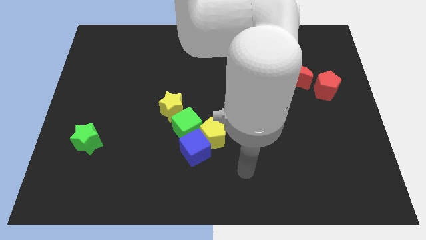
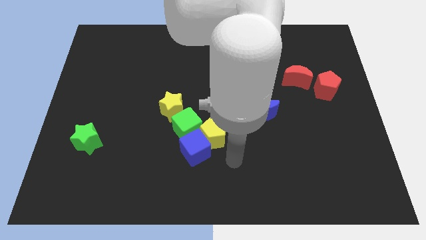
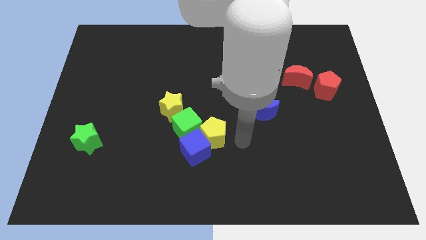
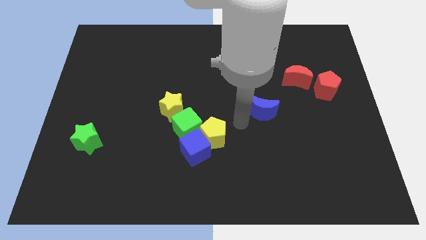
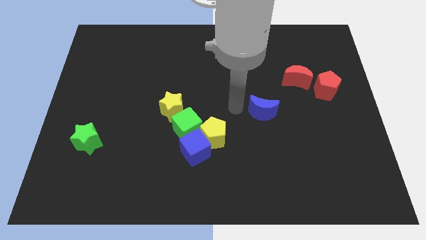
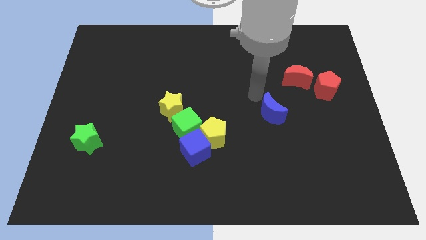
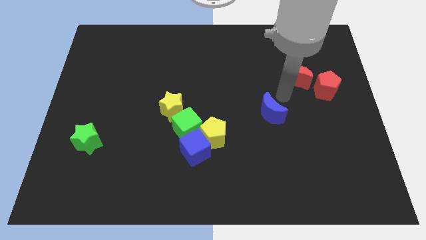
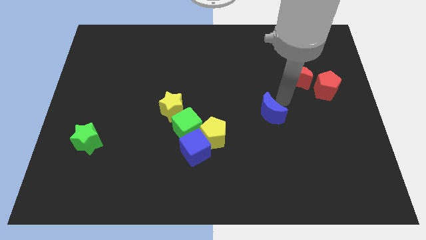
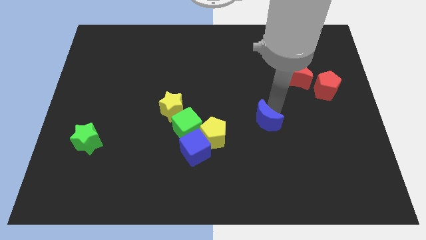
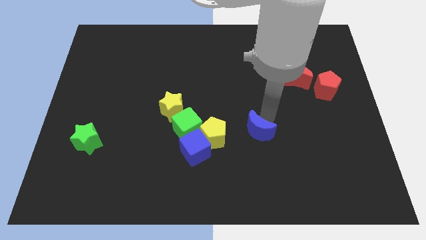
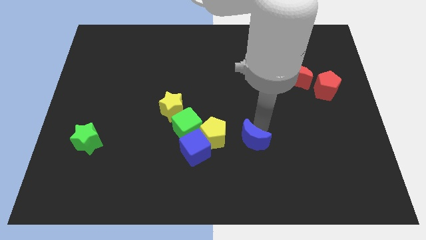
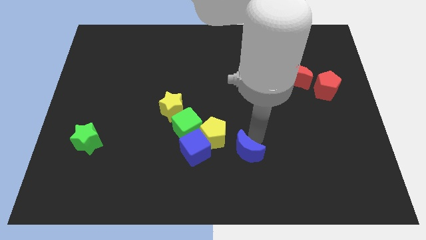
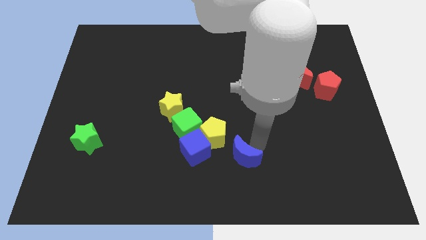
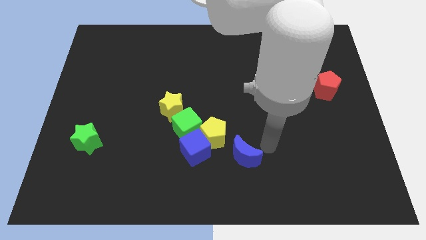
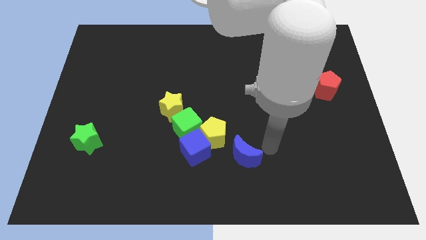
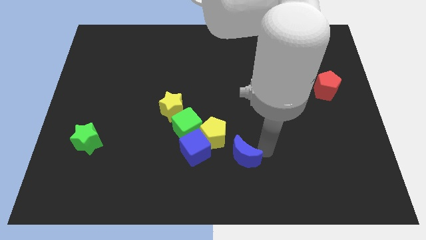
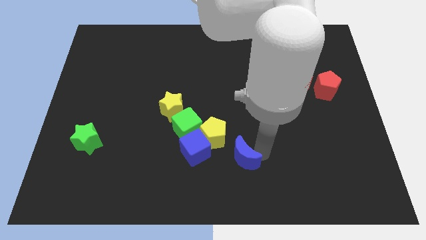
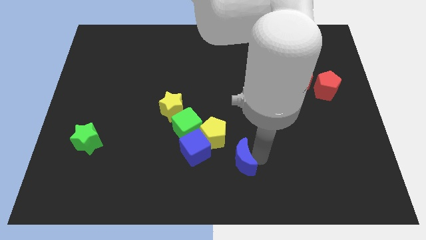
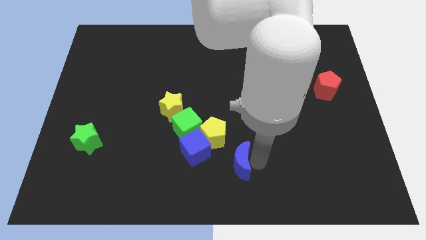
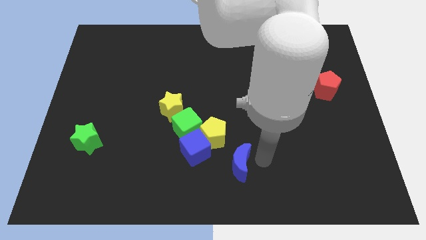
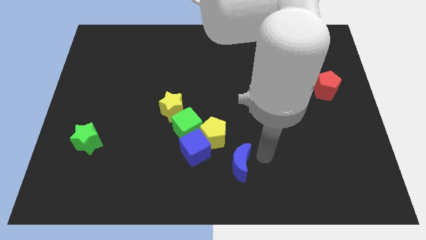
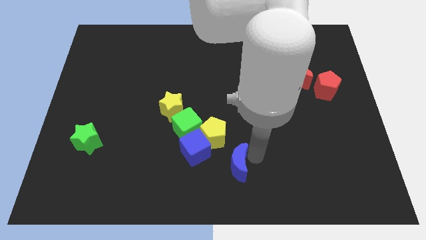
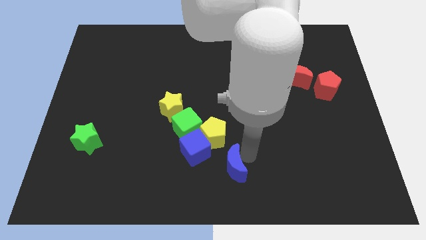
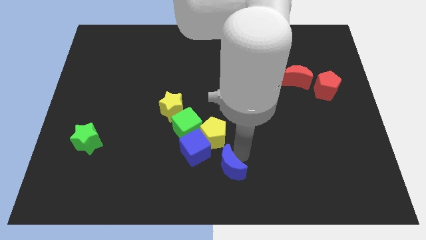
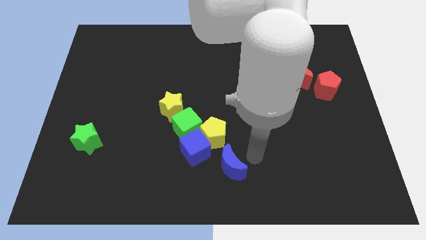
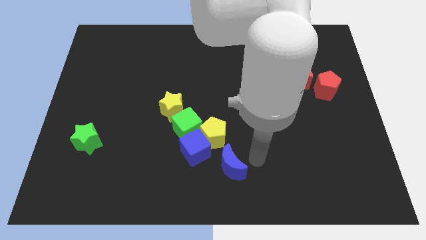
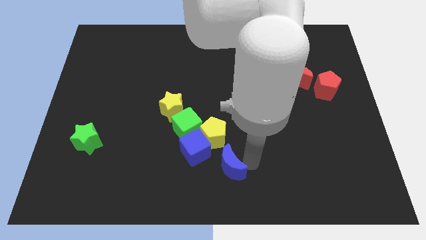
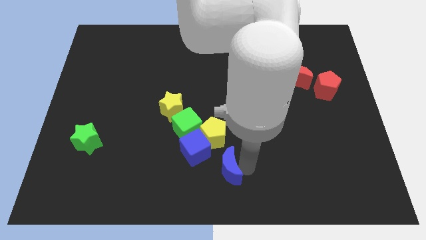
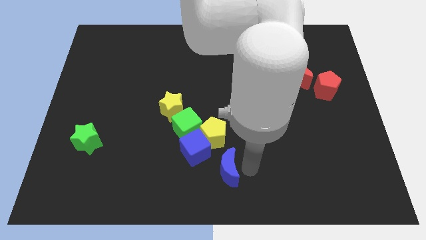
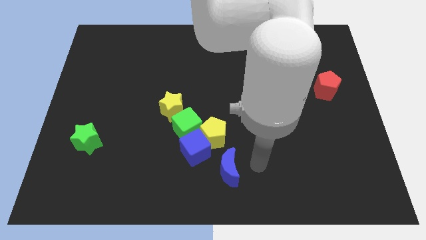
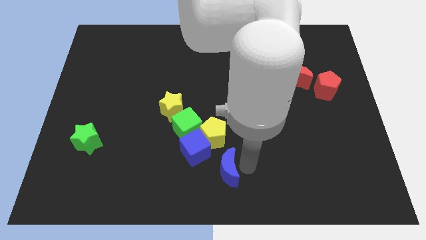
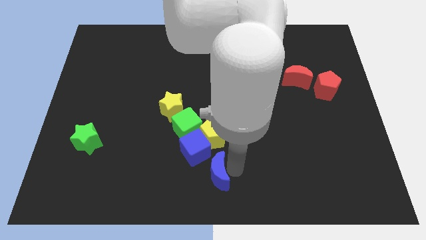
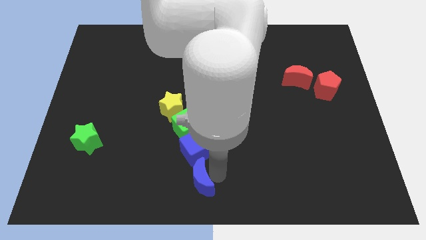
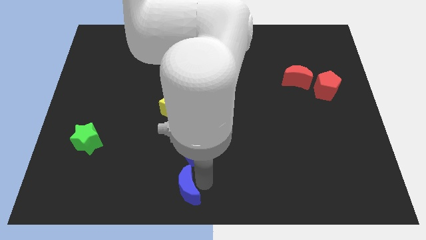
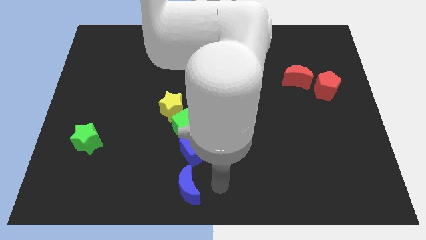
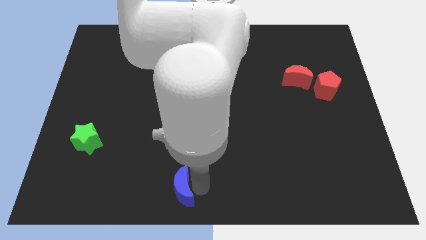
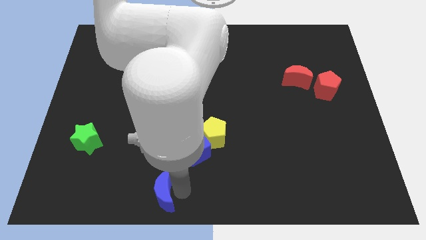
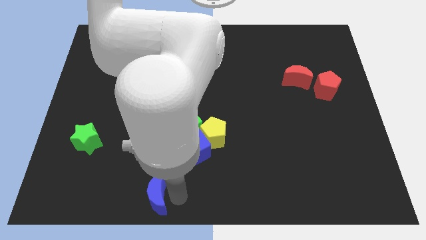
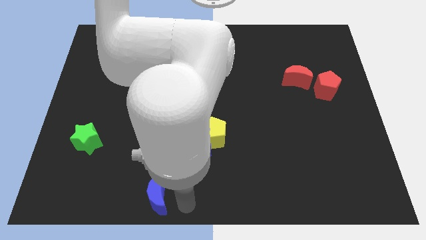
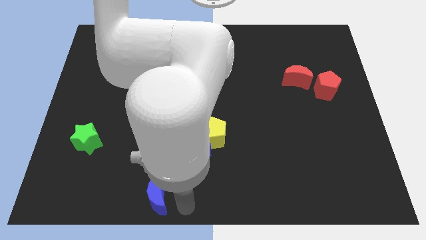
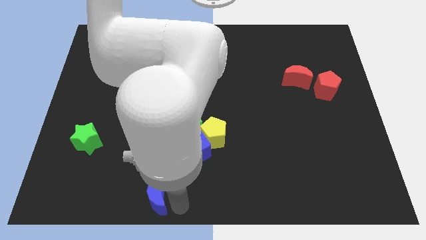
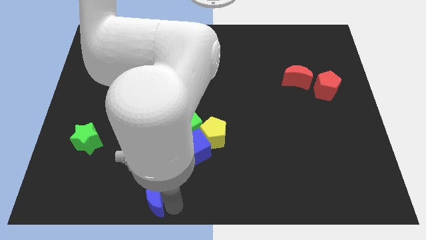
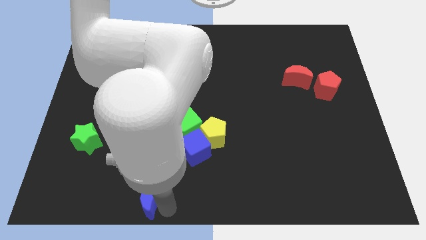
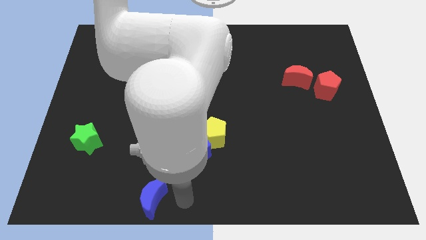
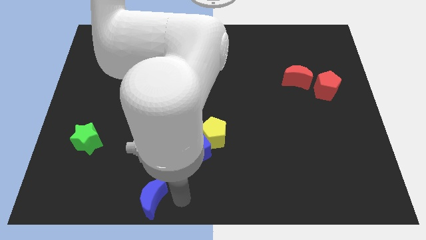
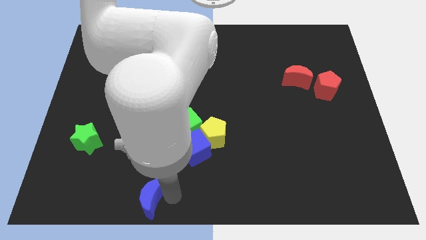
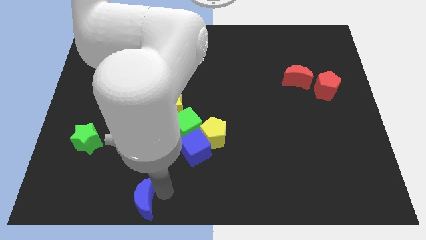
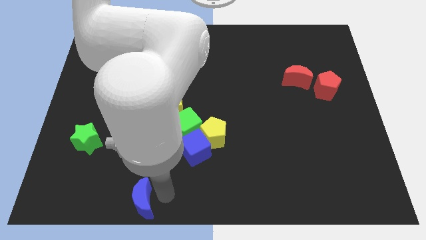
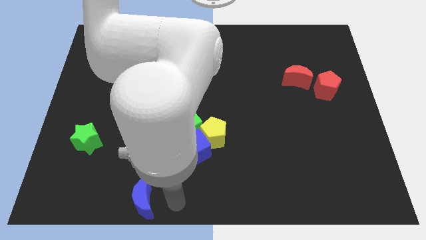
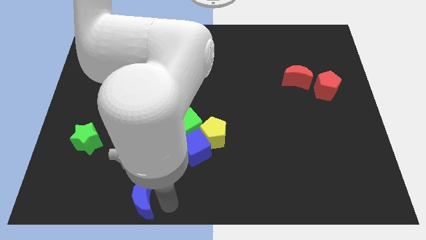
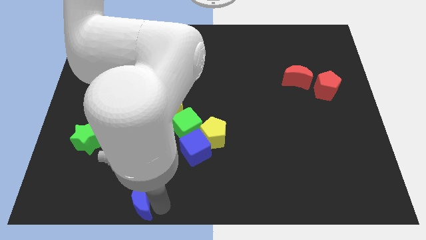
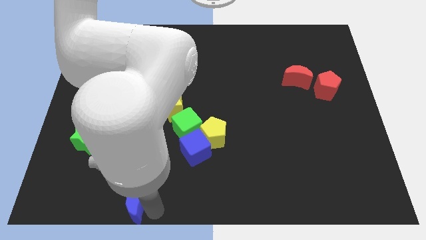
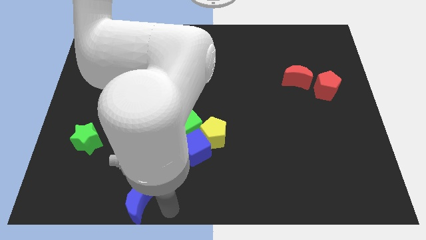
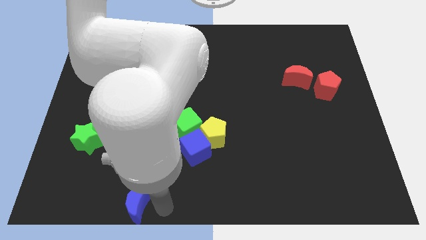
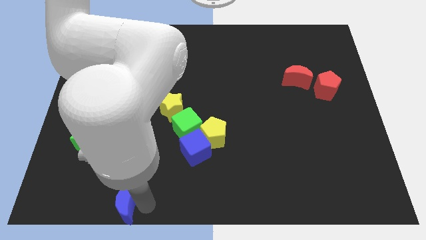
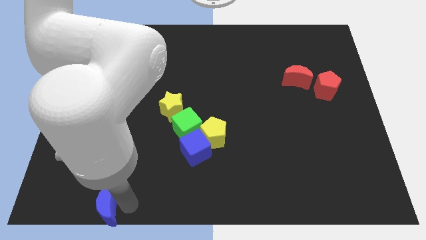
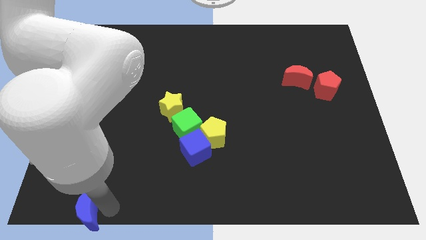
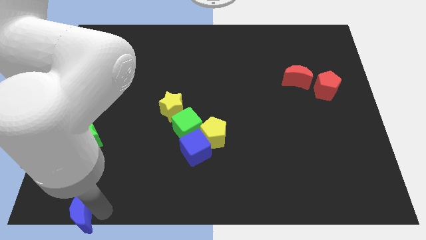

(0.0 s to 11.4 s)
slide the blue moon to the bottom left

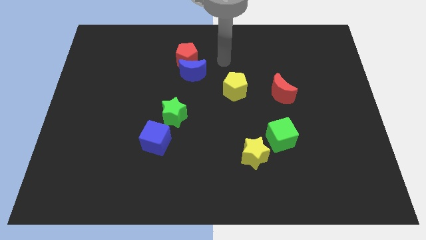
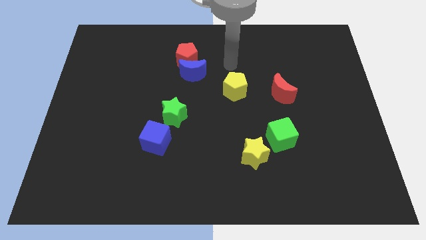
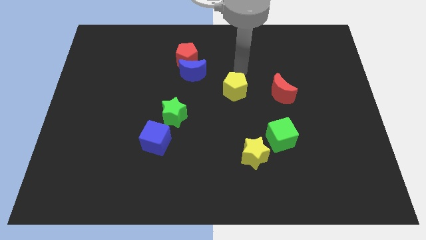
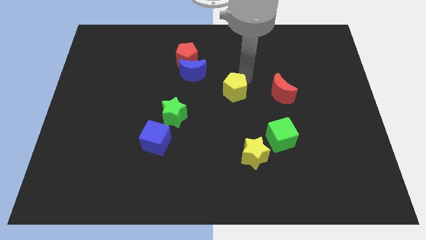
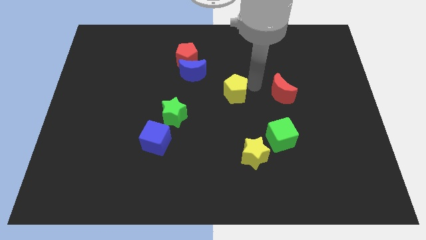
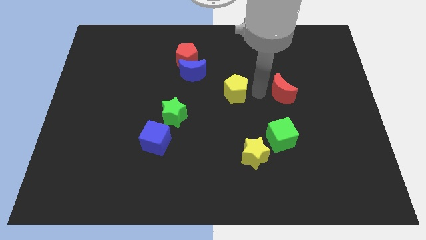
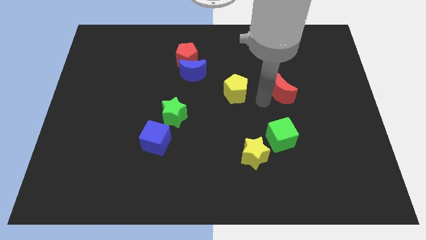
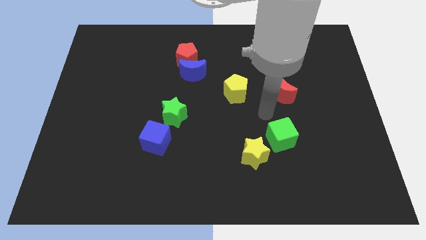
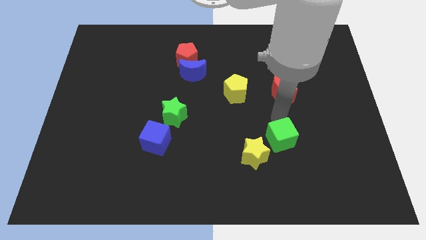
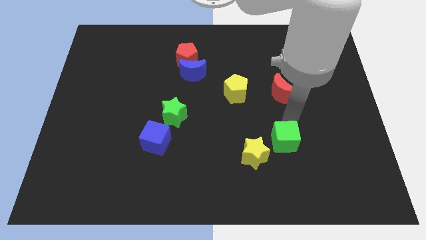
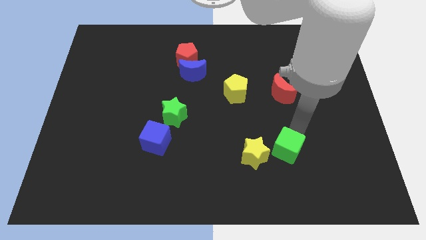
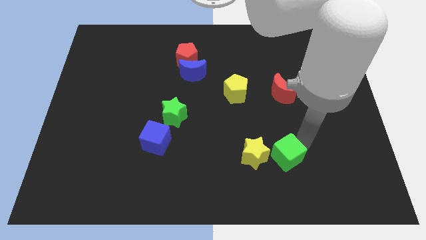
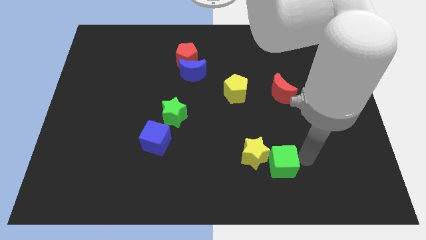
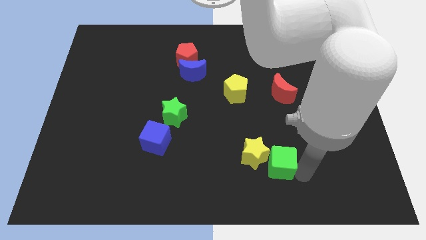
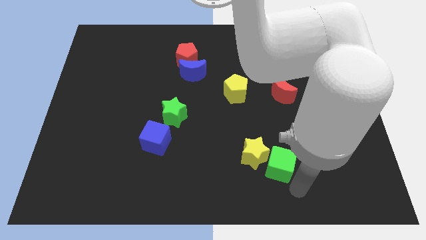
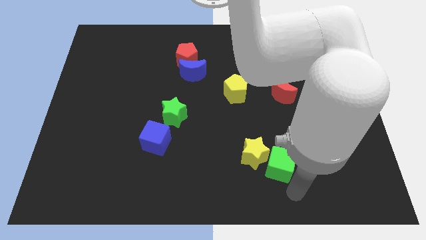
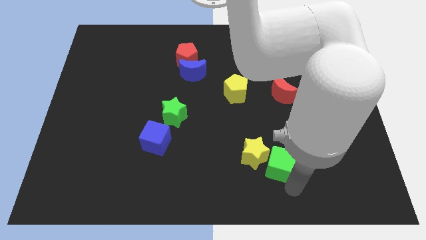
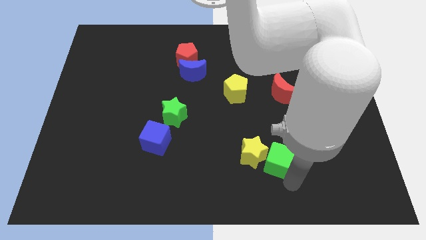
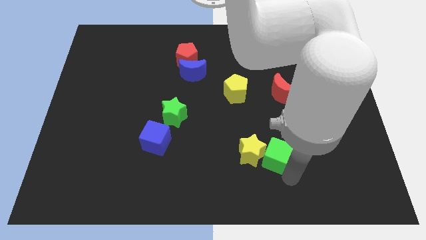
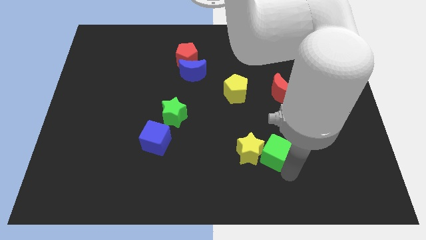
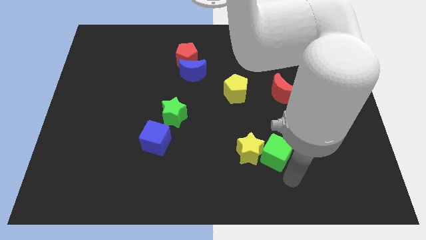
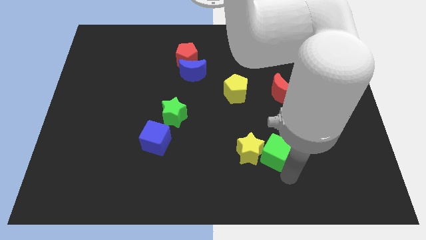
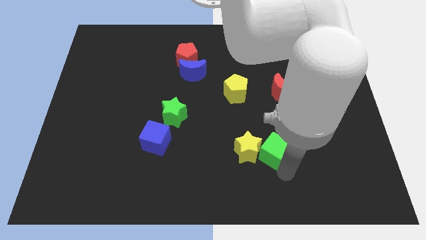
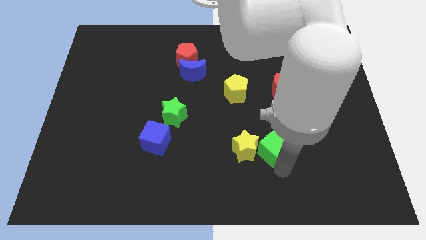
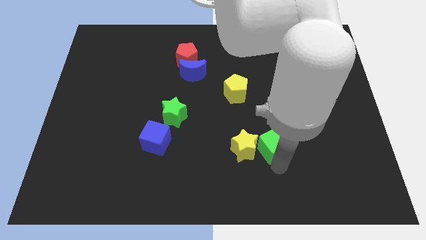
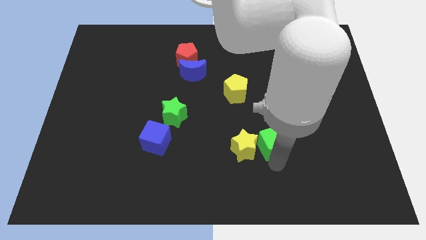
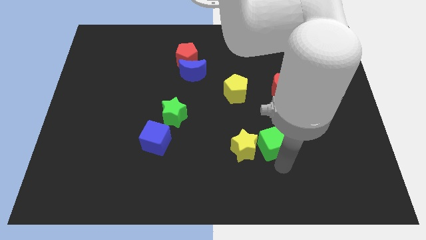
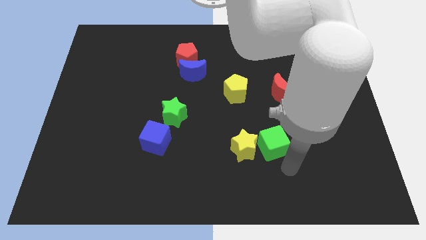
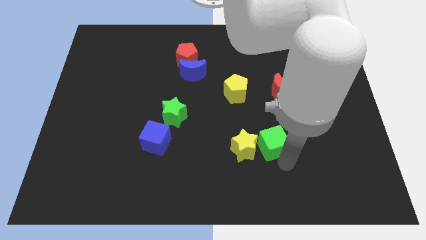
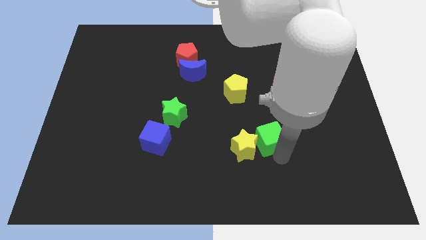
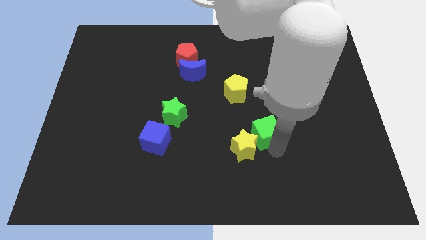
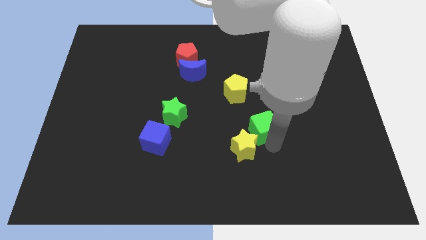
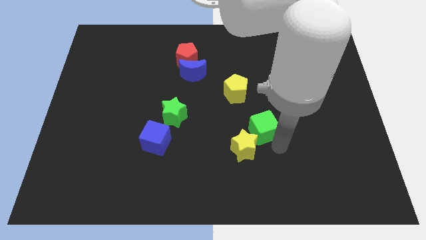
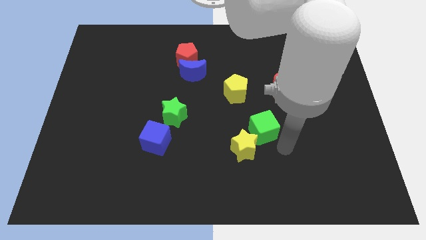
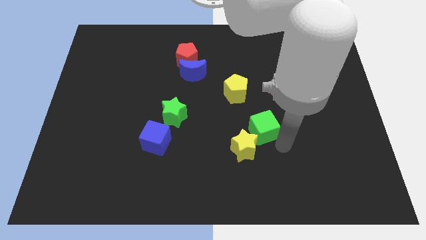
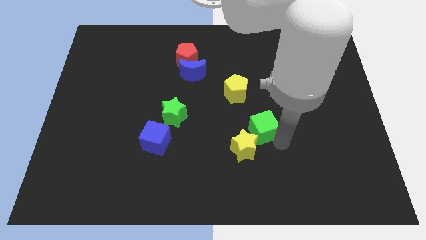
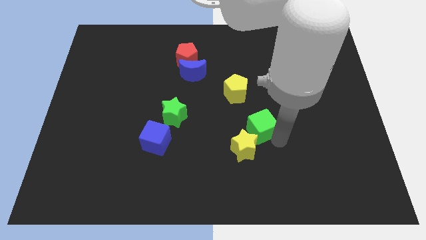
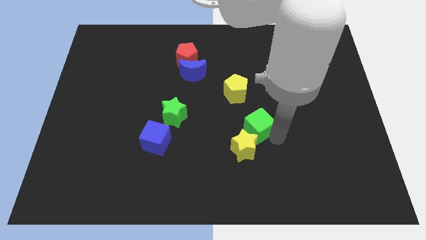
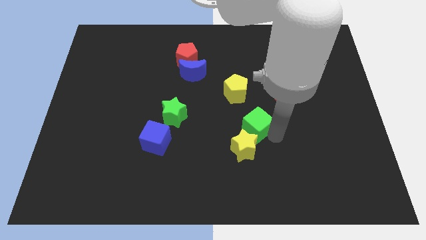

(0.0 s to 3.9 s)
push the green cube to the center
